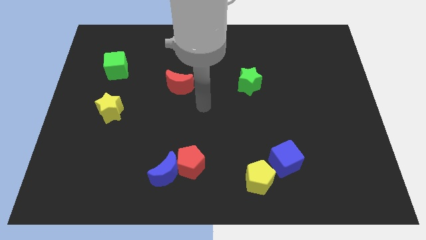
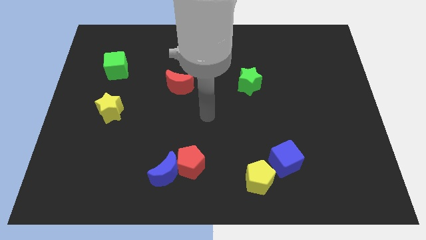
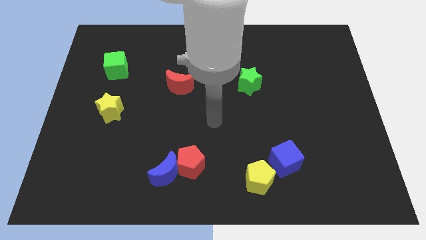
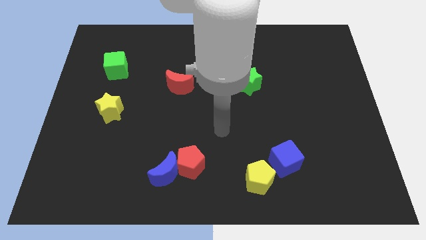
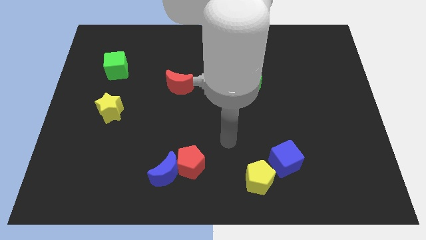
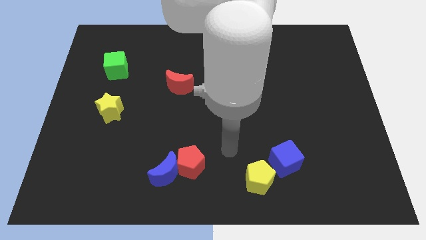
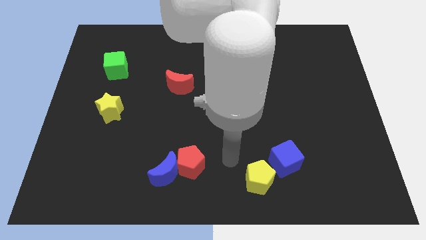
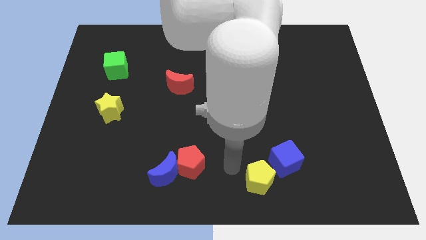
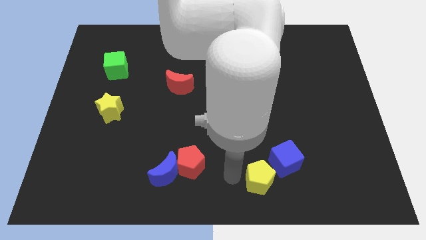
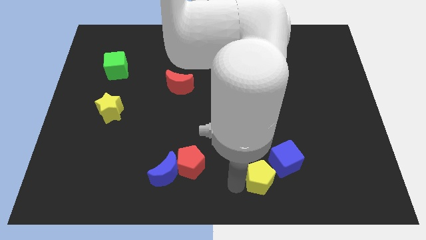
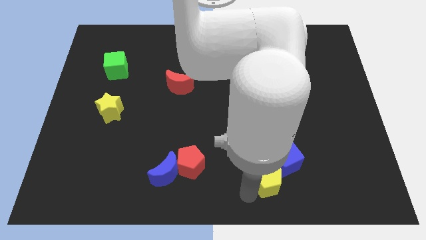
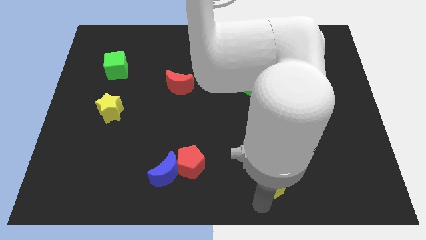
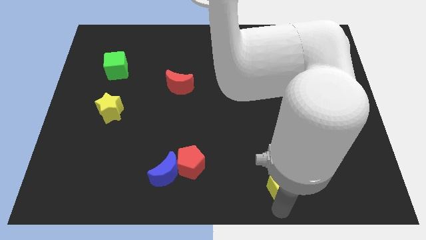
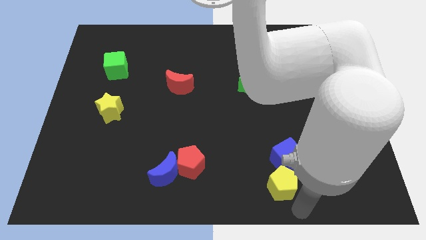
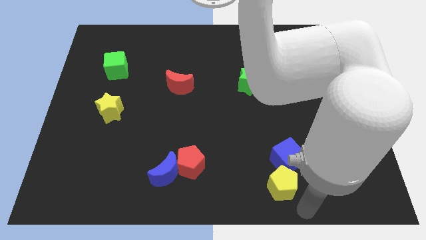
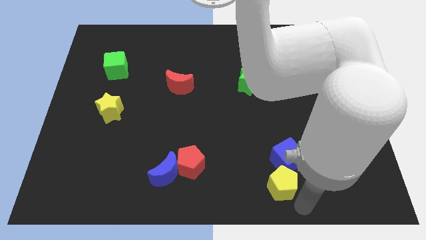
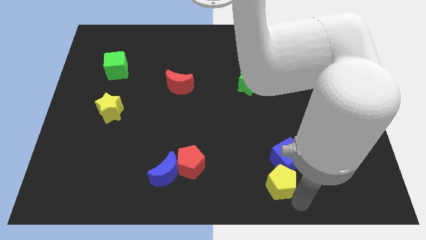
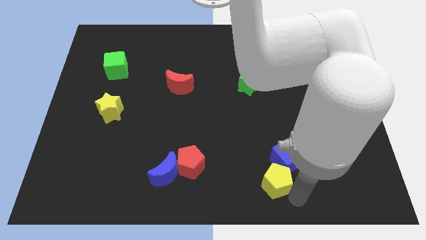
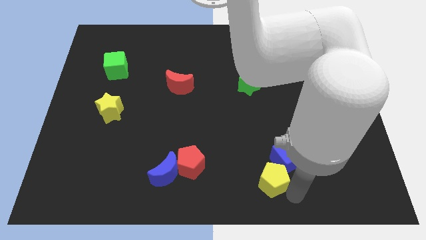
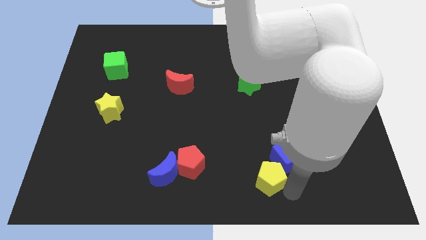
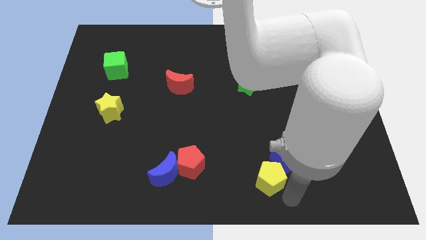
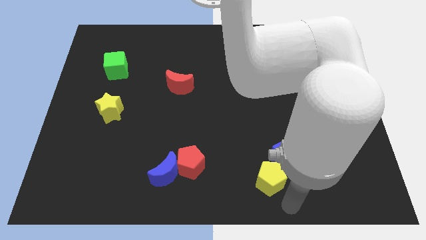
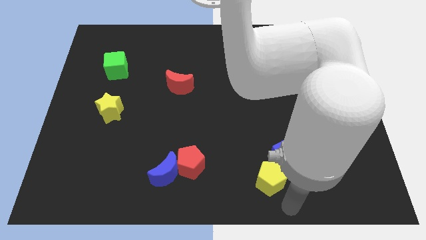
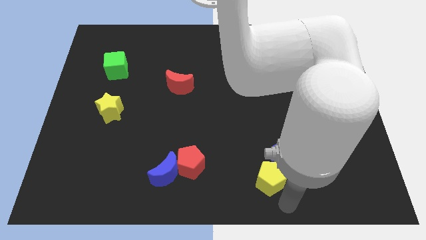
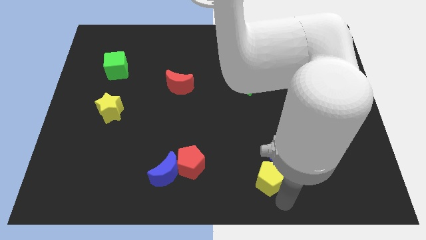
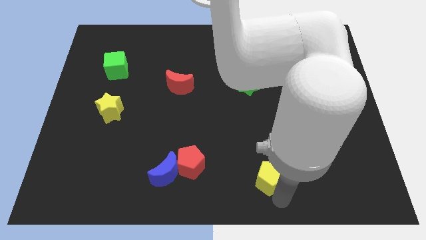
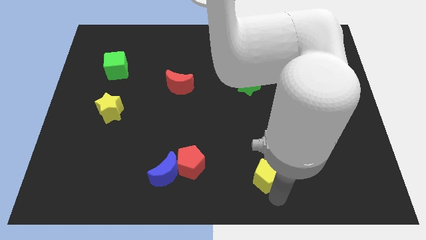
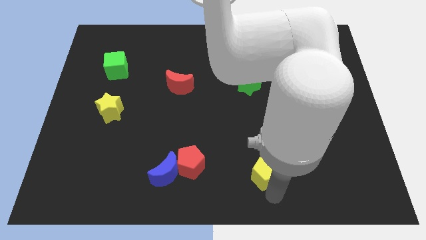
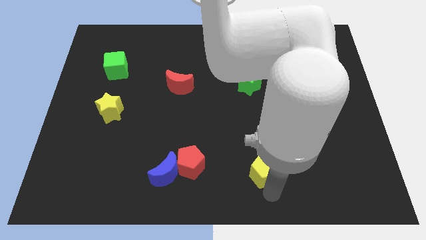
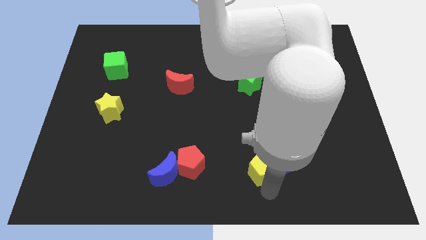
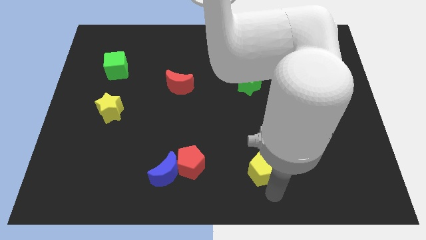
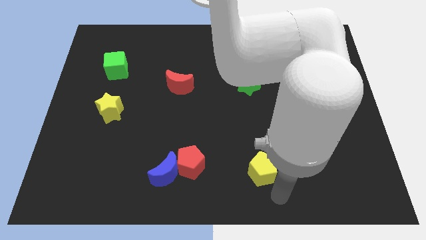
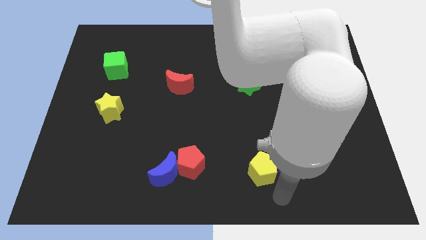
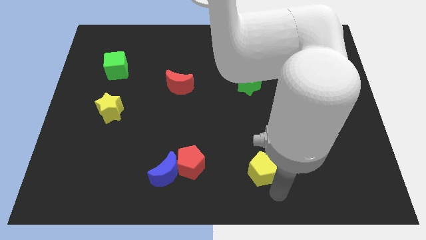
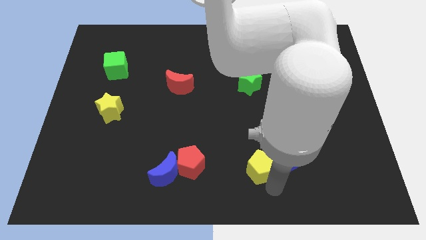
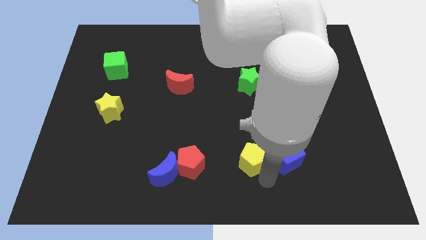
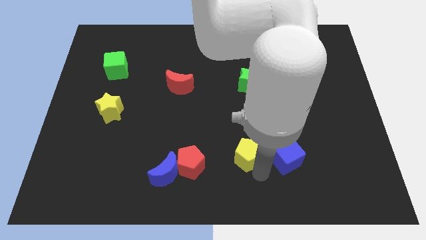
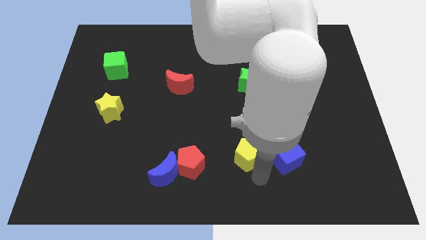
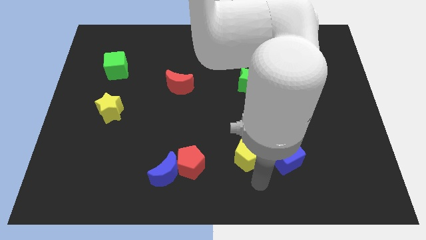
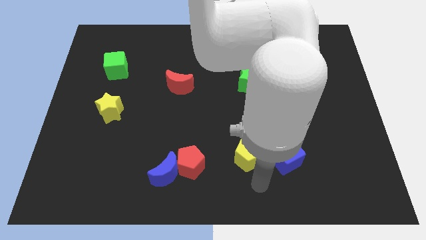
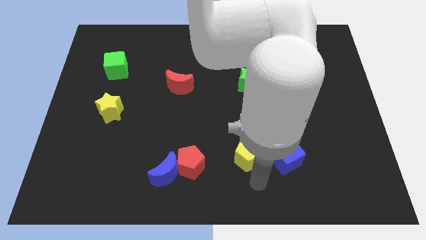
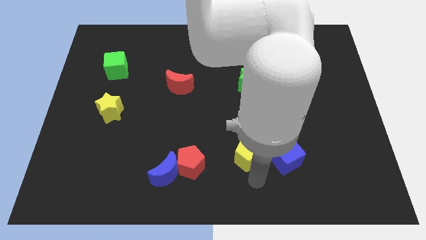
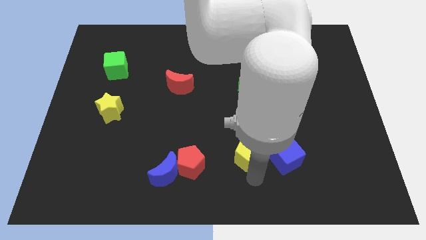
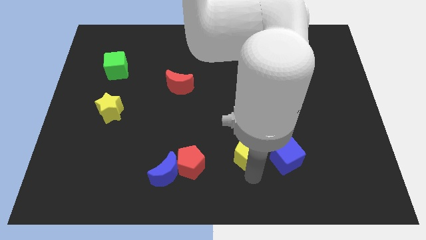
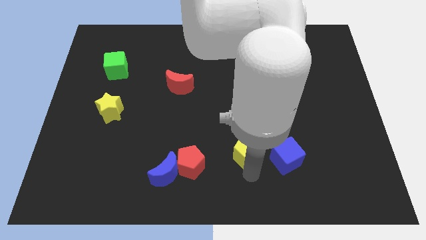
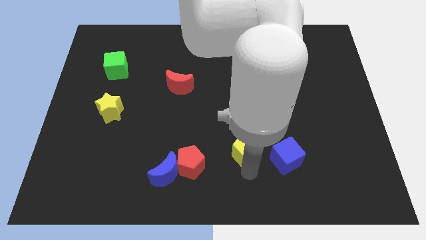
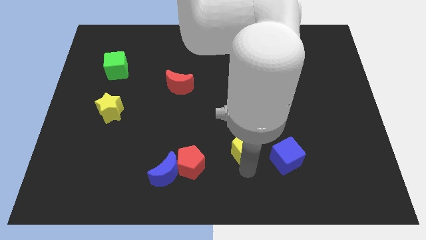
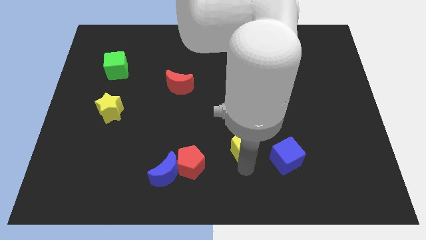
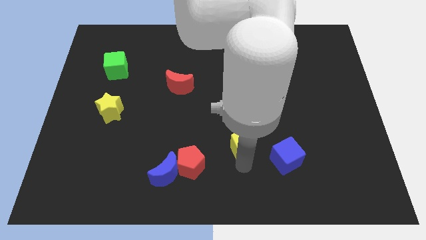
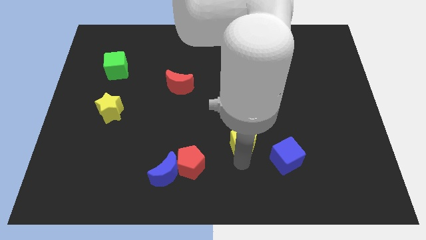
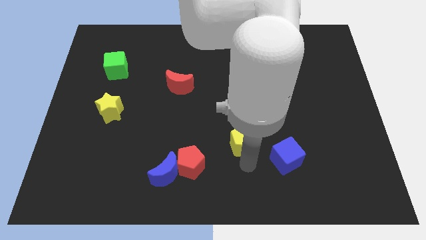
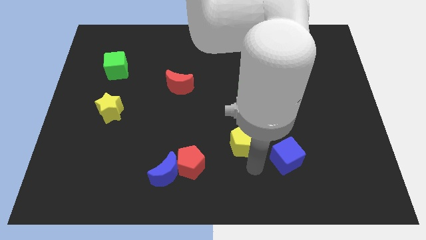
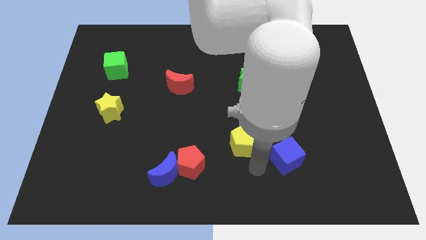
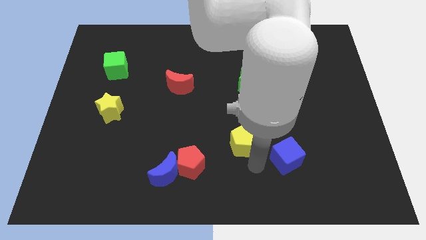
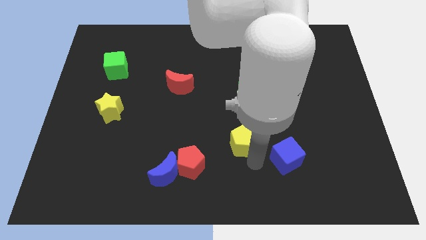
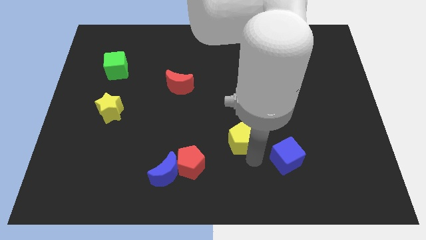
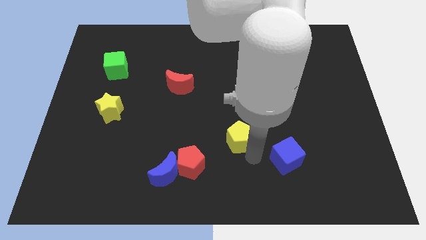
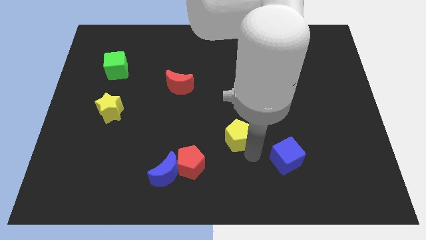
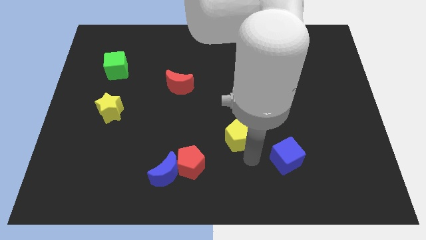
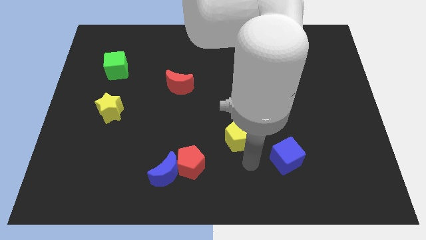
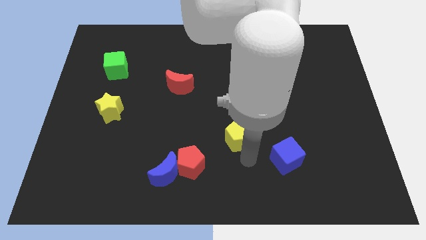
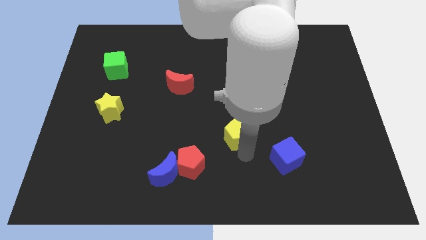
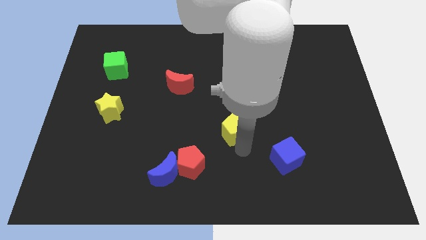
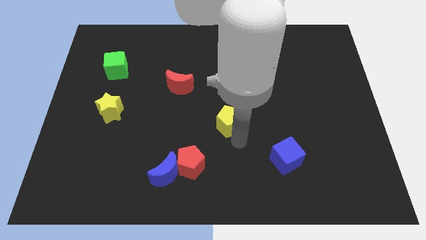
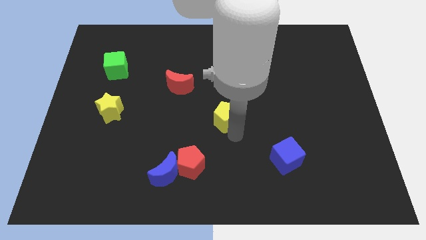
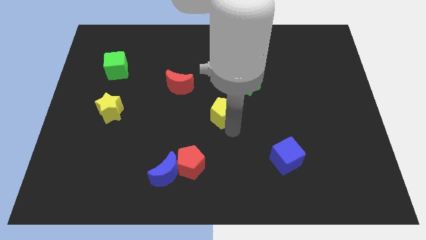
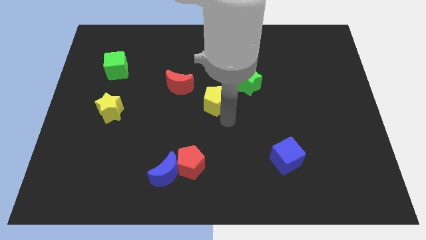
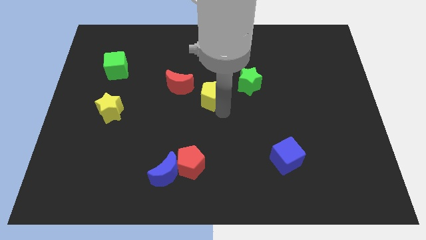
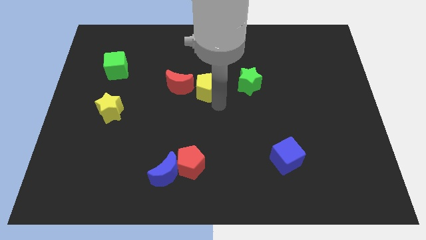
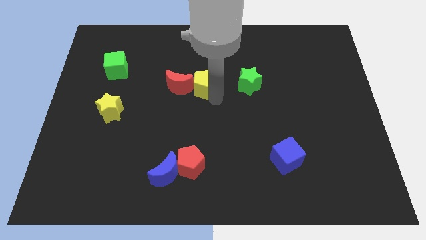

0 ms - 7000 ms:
slide the yellow pentagon next to the red moon
